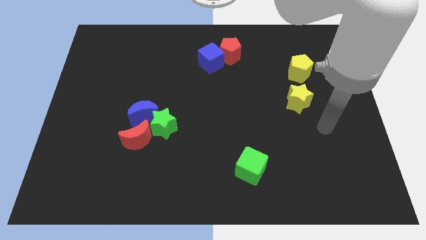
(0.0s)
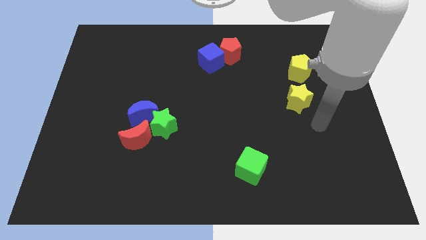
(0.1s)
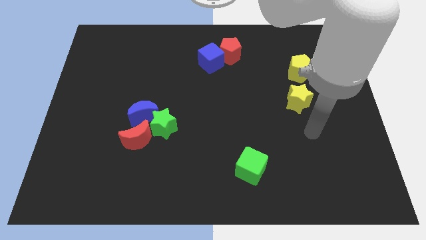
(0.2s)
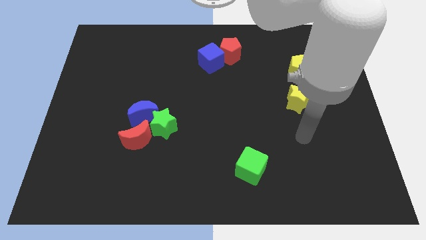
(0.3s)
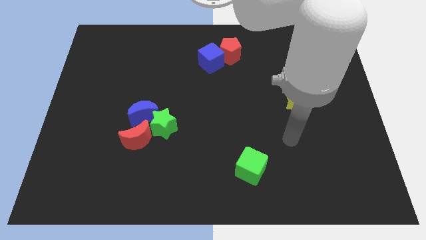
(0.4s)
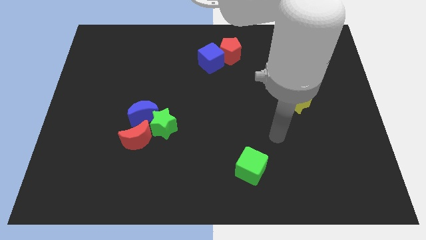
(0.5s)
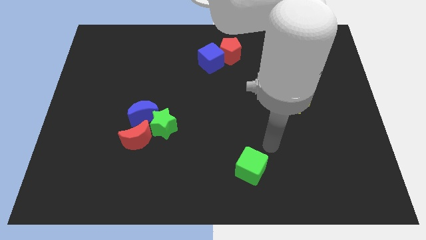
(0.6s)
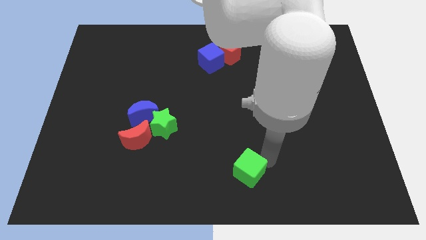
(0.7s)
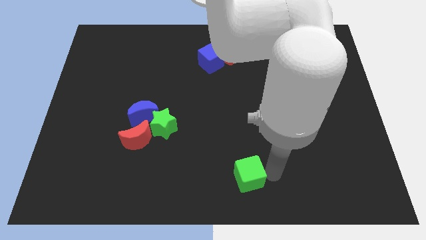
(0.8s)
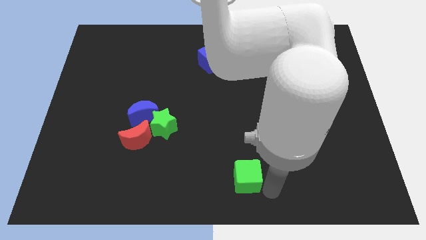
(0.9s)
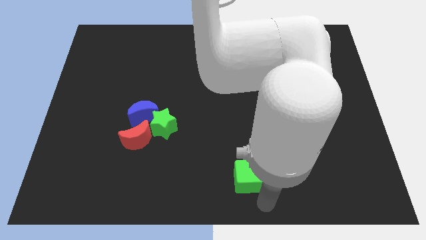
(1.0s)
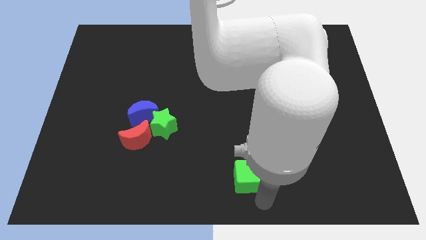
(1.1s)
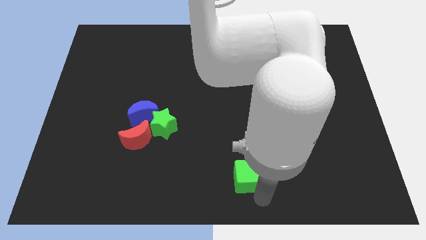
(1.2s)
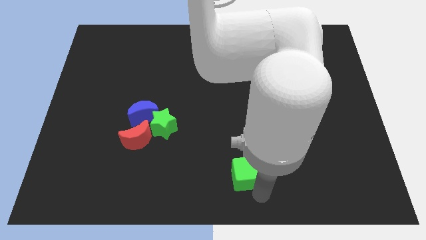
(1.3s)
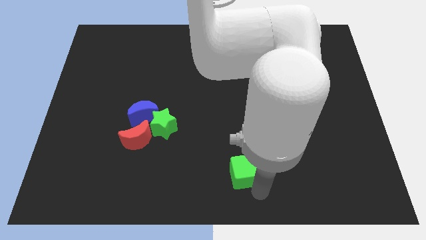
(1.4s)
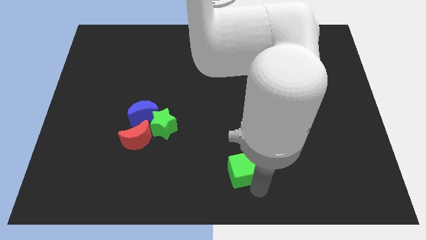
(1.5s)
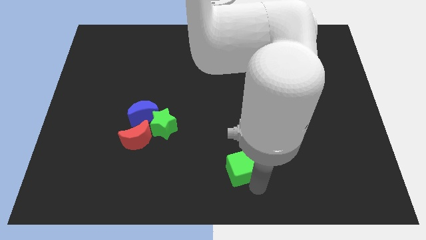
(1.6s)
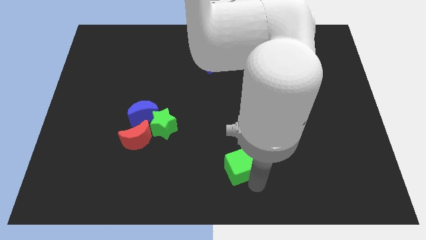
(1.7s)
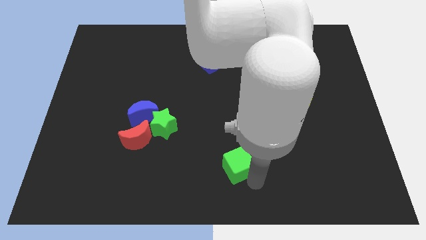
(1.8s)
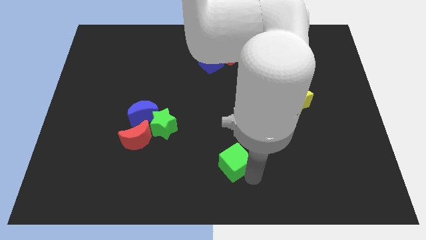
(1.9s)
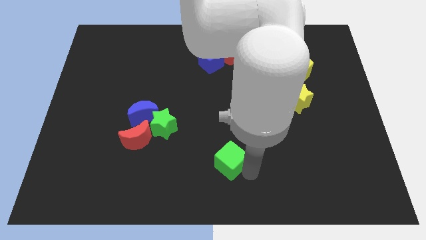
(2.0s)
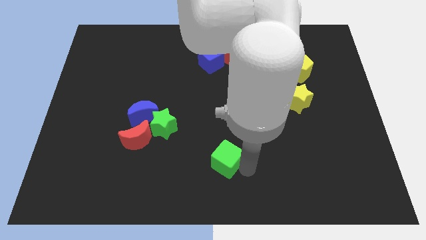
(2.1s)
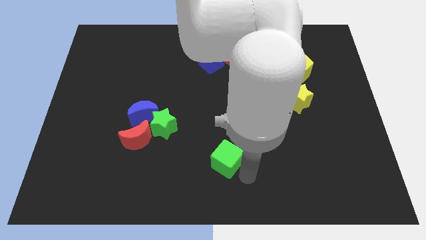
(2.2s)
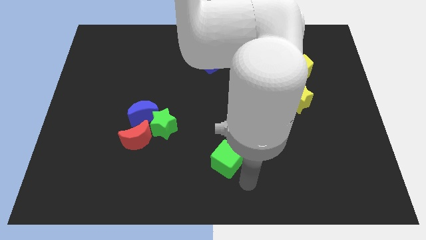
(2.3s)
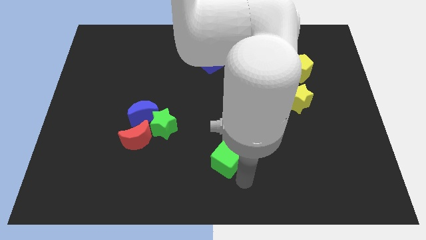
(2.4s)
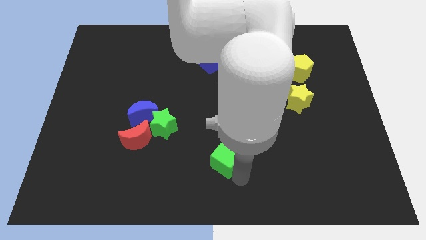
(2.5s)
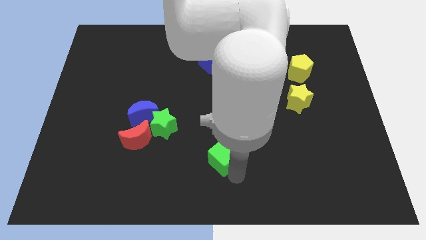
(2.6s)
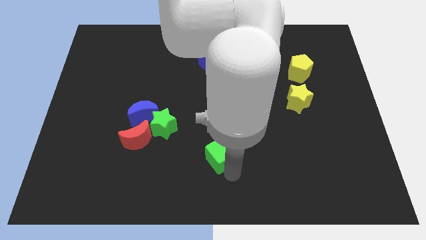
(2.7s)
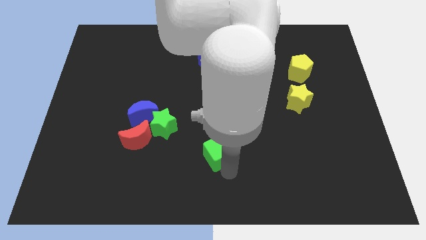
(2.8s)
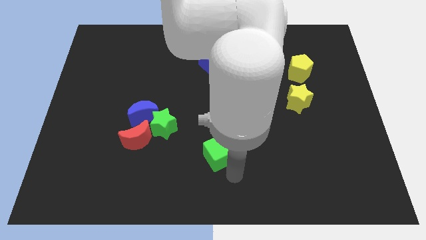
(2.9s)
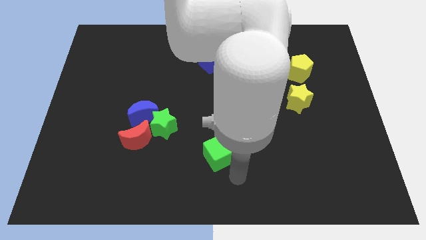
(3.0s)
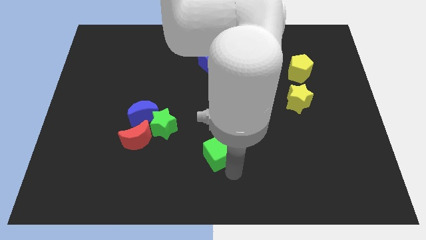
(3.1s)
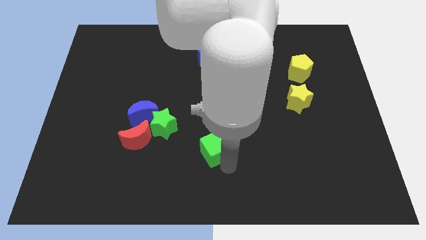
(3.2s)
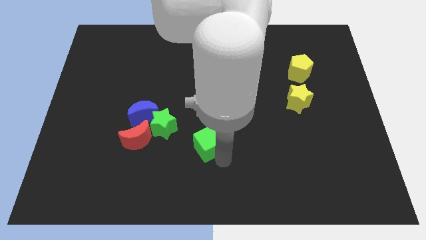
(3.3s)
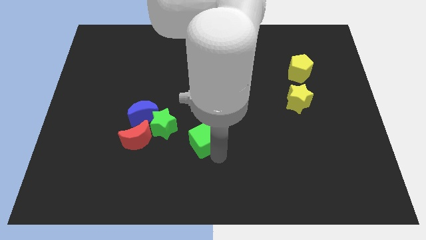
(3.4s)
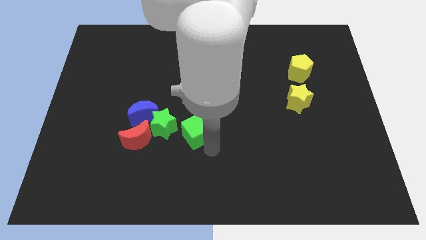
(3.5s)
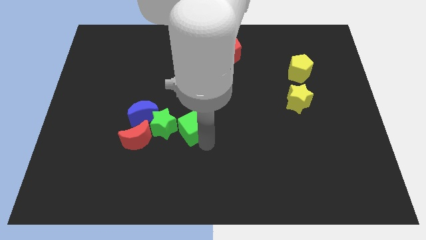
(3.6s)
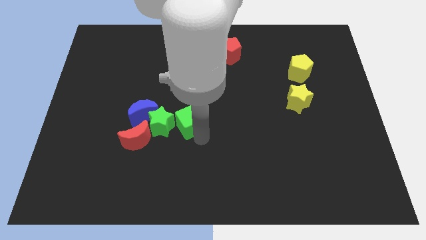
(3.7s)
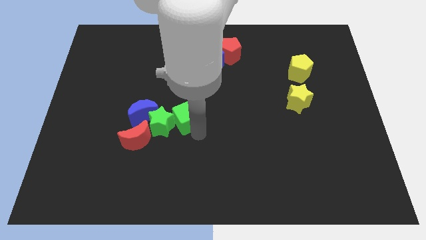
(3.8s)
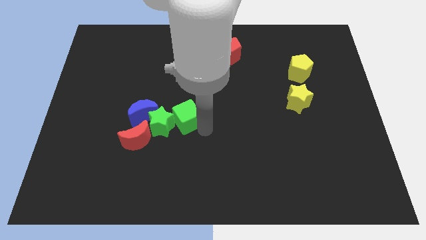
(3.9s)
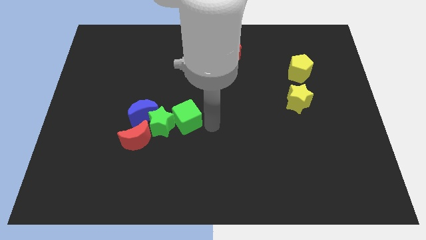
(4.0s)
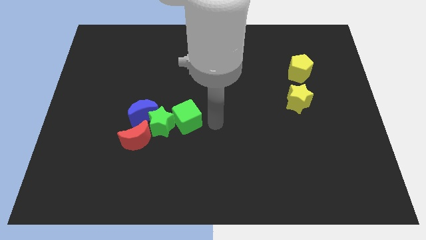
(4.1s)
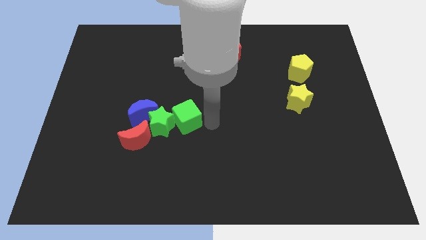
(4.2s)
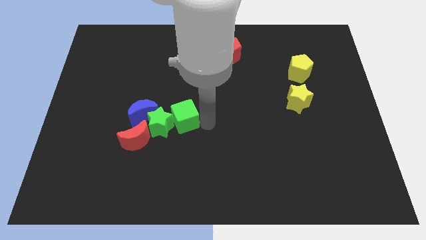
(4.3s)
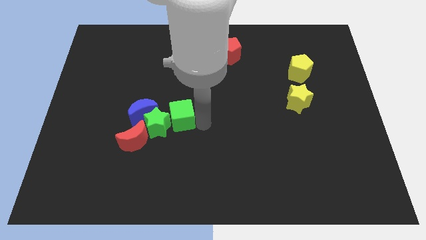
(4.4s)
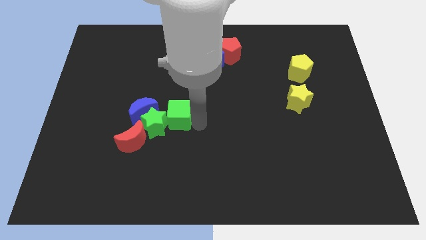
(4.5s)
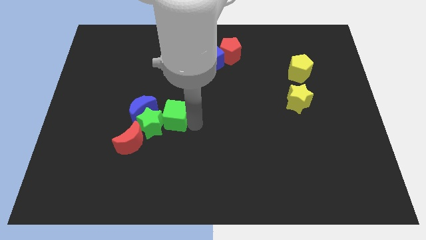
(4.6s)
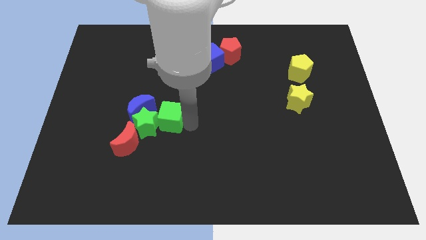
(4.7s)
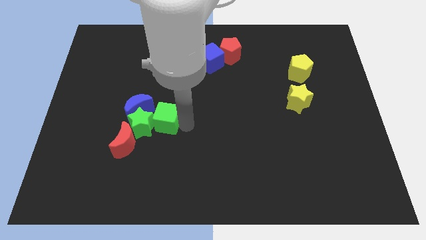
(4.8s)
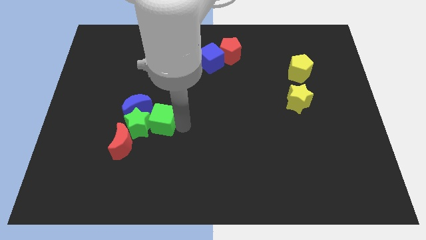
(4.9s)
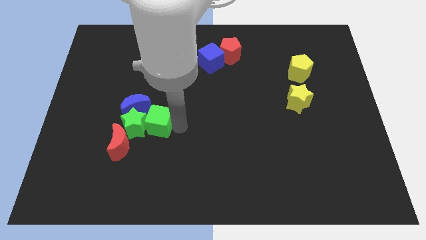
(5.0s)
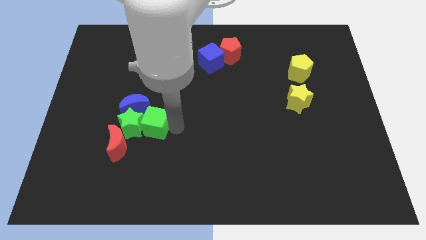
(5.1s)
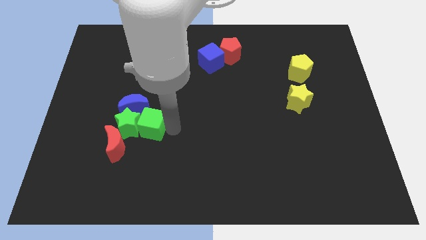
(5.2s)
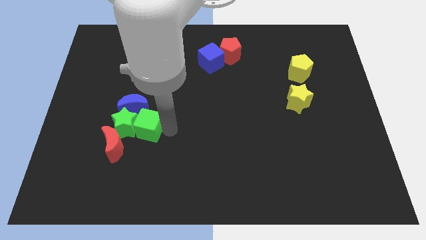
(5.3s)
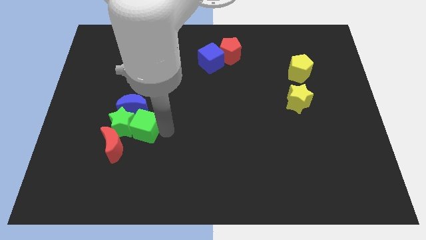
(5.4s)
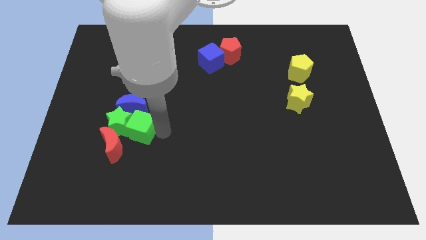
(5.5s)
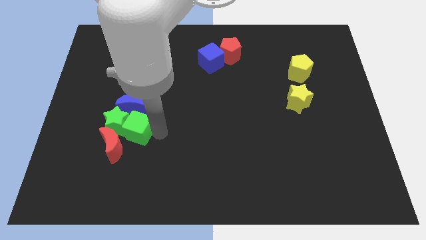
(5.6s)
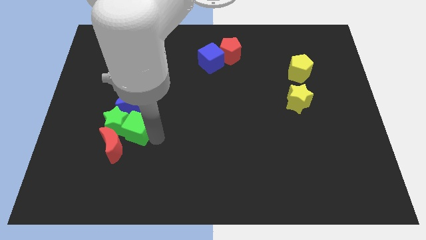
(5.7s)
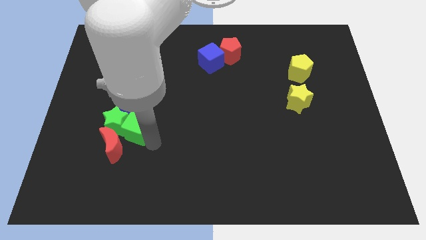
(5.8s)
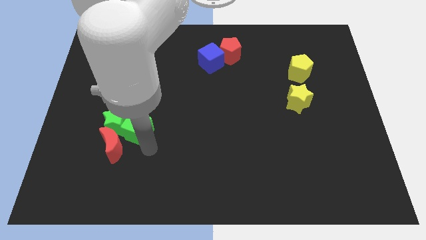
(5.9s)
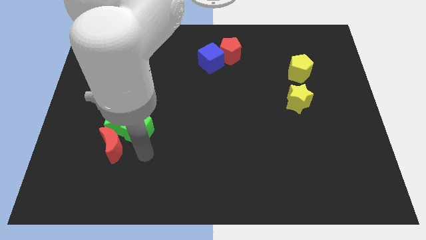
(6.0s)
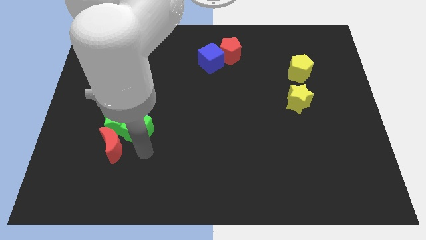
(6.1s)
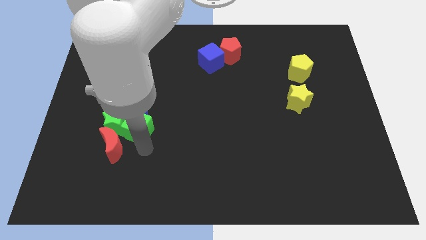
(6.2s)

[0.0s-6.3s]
put the green cube next to the blue moon

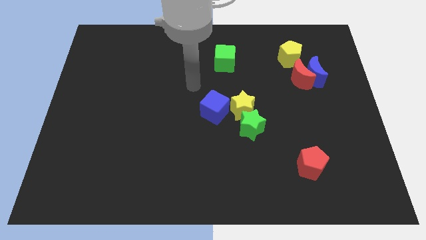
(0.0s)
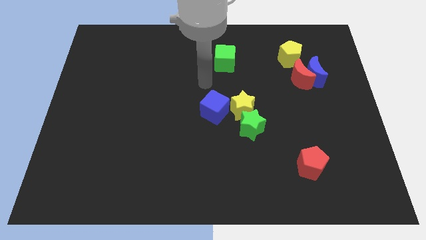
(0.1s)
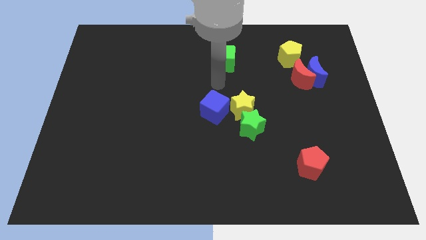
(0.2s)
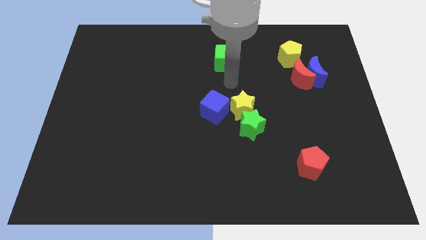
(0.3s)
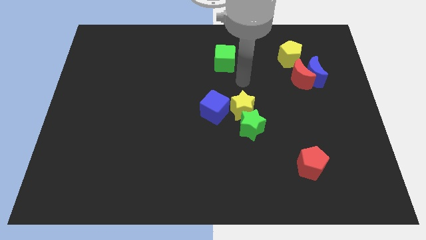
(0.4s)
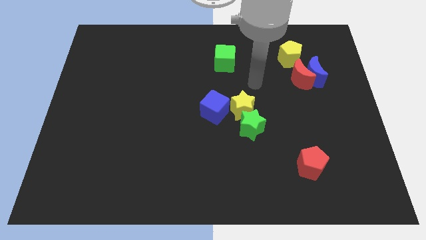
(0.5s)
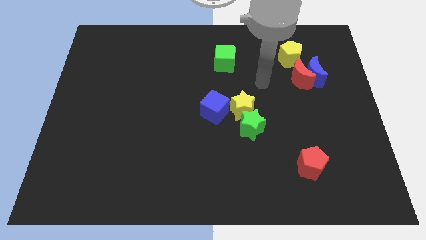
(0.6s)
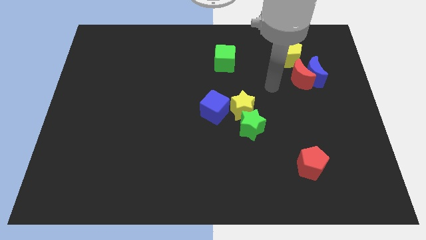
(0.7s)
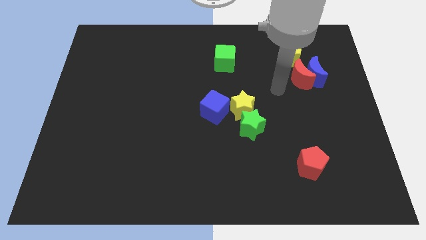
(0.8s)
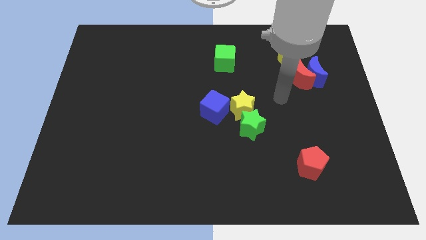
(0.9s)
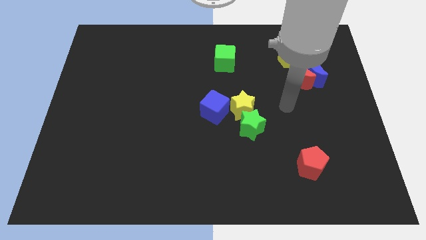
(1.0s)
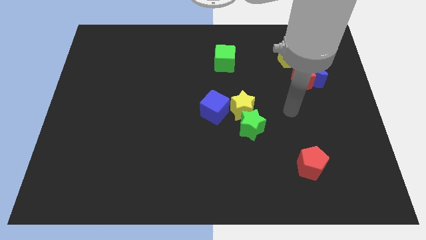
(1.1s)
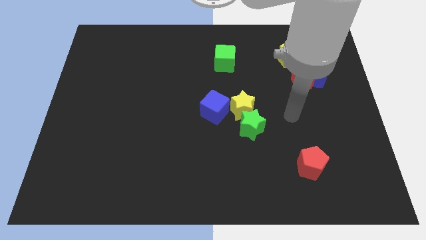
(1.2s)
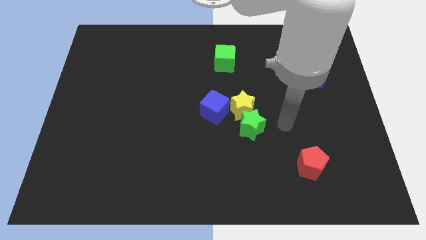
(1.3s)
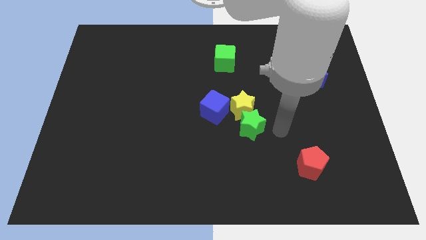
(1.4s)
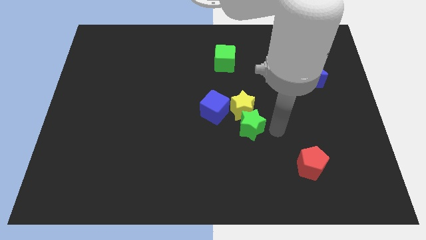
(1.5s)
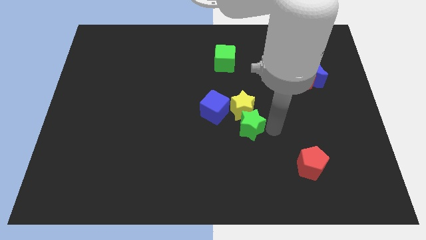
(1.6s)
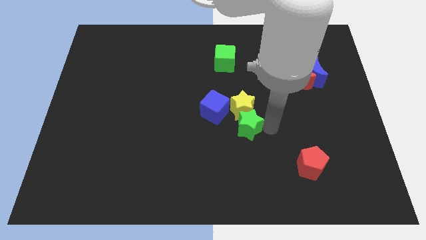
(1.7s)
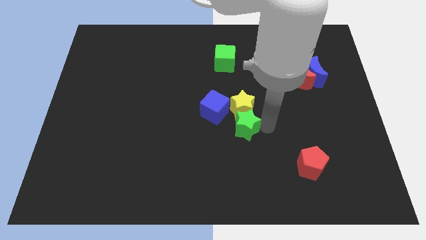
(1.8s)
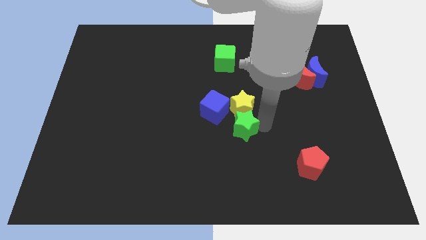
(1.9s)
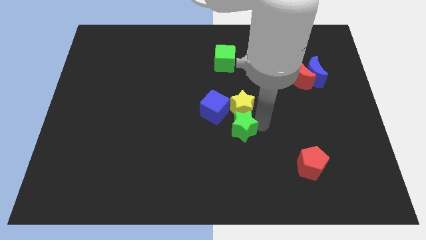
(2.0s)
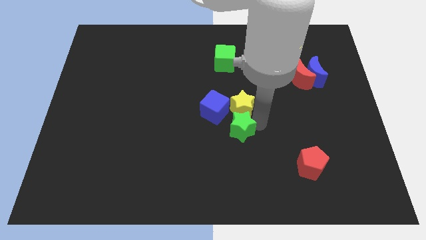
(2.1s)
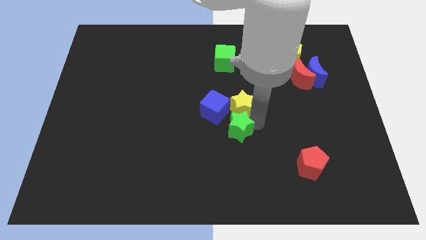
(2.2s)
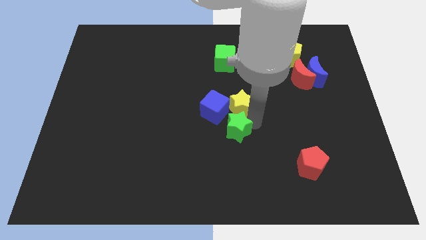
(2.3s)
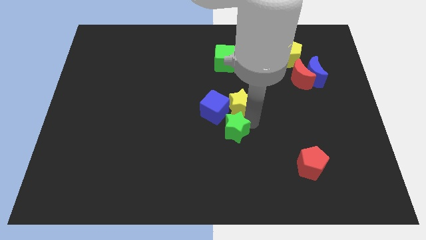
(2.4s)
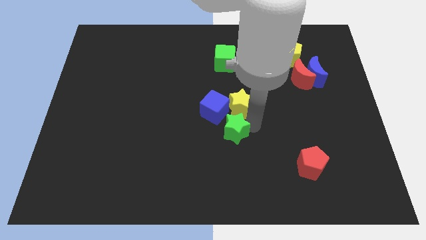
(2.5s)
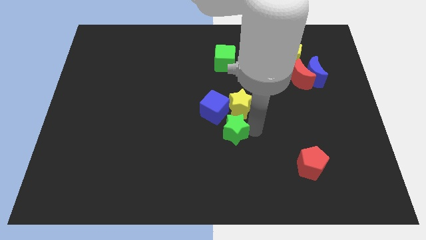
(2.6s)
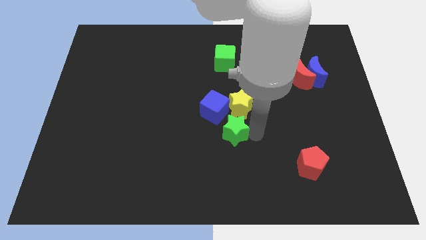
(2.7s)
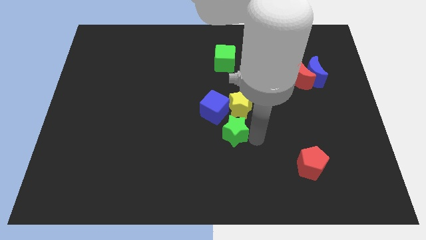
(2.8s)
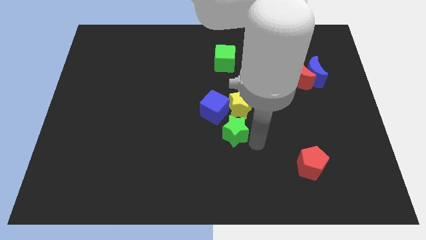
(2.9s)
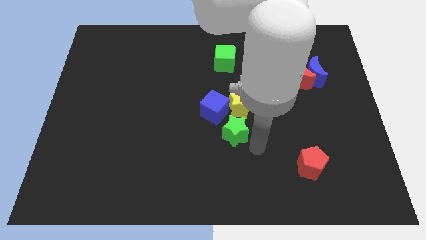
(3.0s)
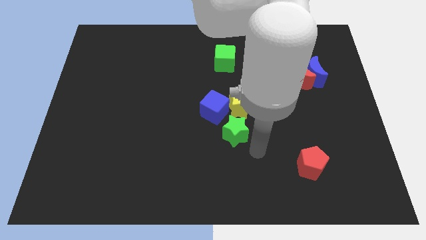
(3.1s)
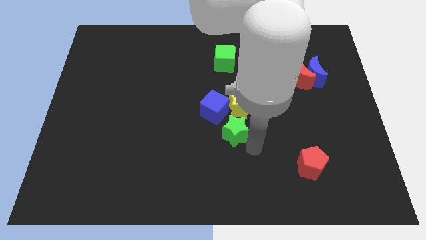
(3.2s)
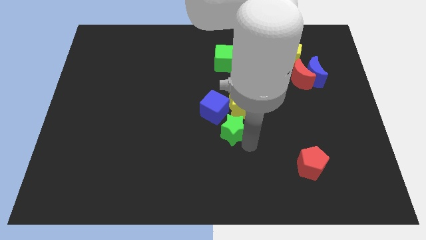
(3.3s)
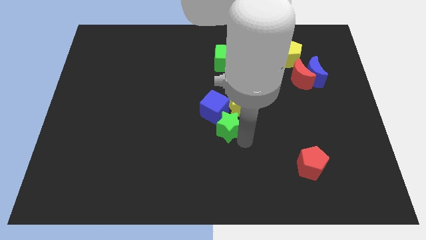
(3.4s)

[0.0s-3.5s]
push the green star next to the blue cube
